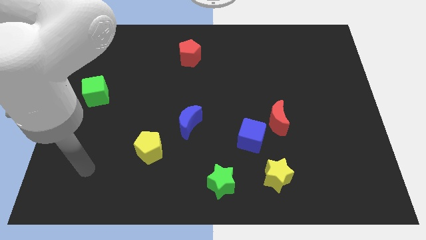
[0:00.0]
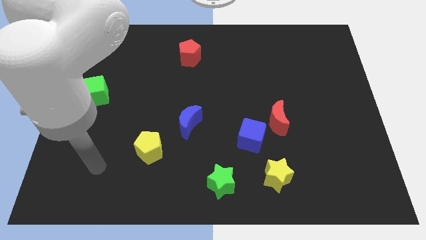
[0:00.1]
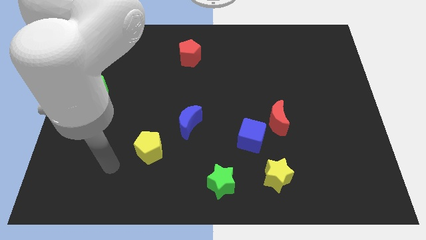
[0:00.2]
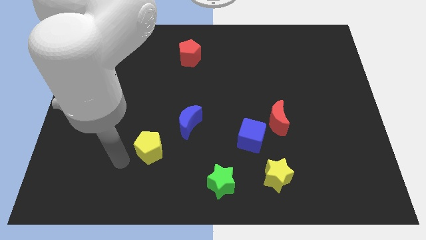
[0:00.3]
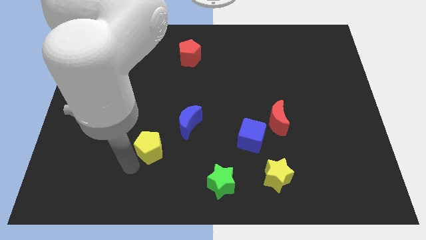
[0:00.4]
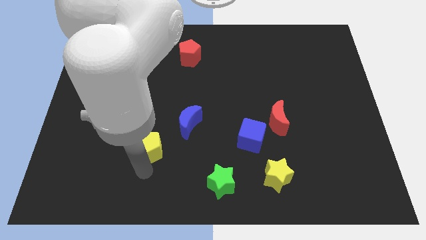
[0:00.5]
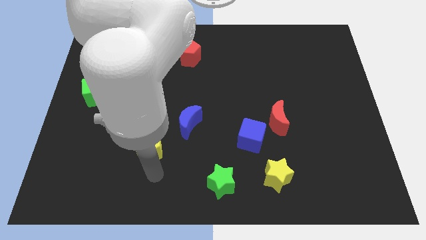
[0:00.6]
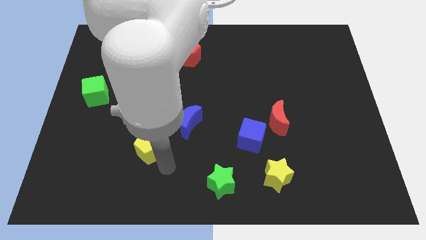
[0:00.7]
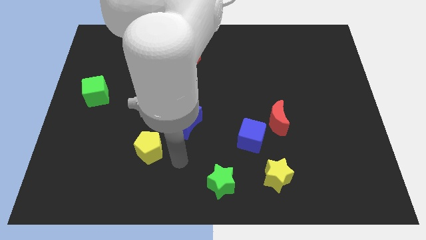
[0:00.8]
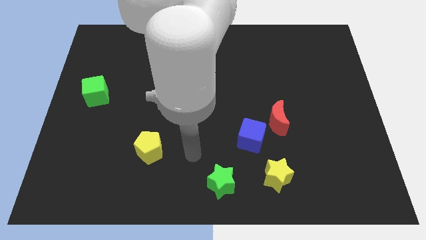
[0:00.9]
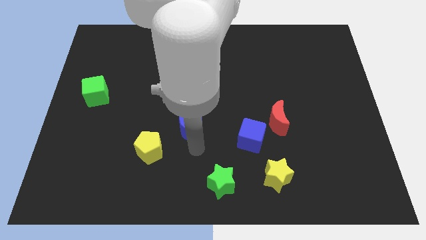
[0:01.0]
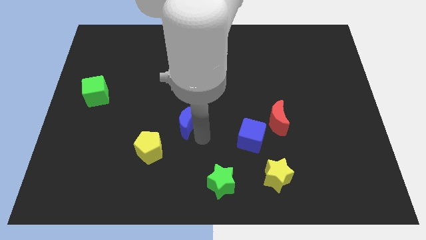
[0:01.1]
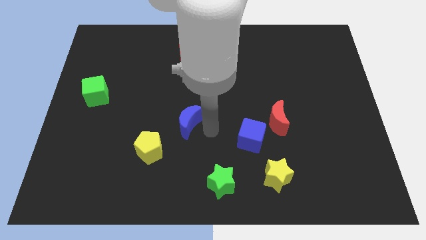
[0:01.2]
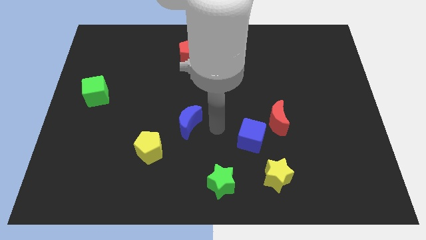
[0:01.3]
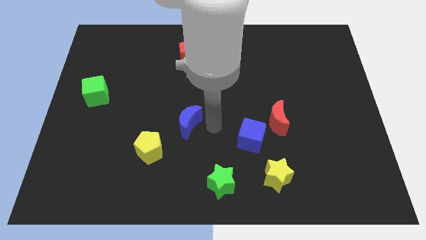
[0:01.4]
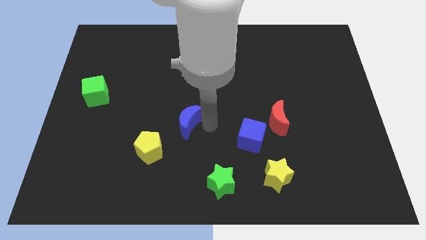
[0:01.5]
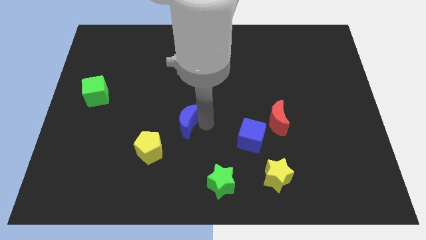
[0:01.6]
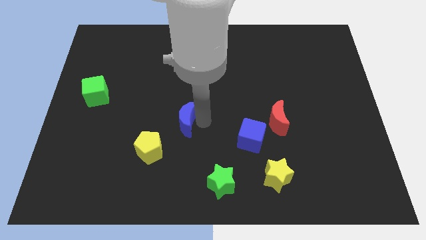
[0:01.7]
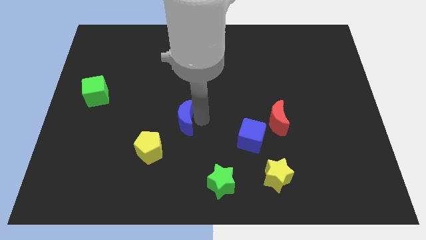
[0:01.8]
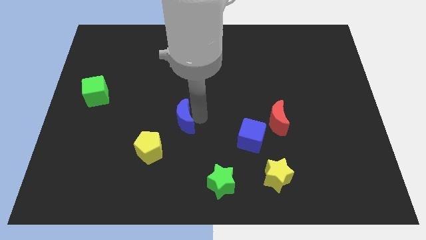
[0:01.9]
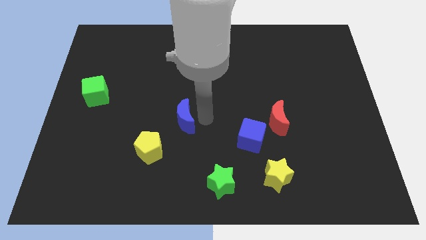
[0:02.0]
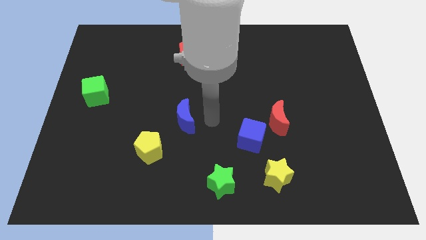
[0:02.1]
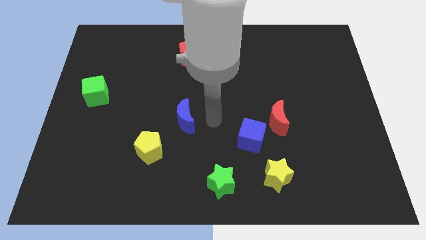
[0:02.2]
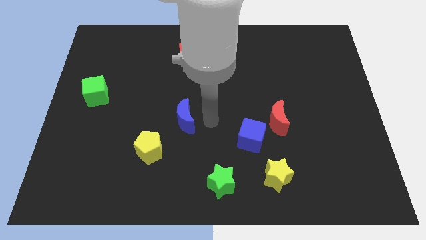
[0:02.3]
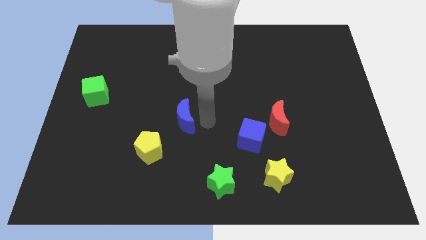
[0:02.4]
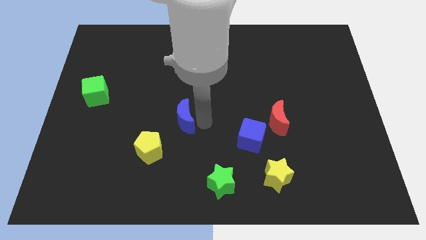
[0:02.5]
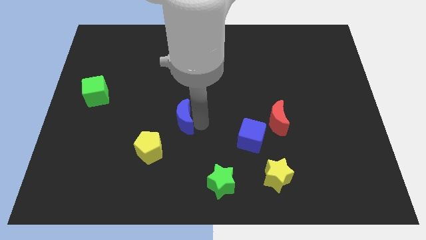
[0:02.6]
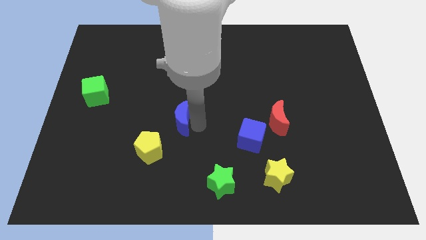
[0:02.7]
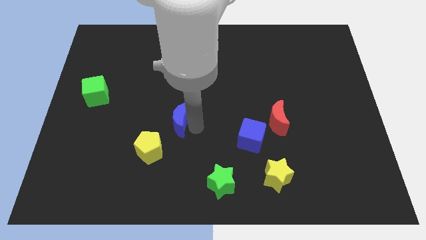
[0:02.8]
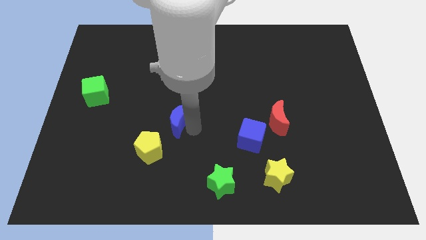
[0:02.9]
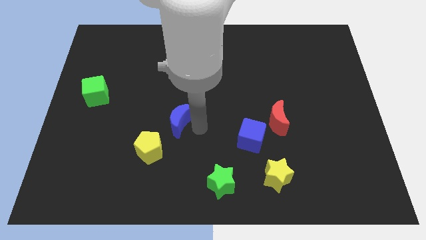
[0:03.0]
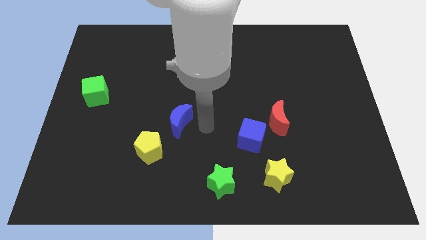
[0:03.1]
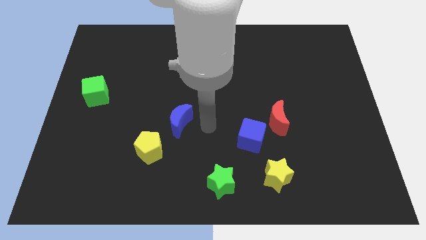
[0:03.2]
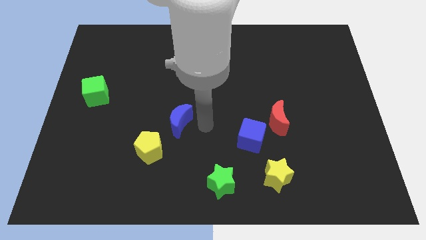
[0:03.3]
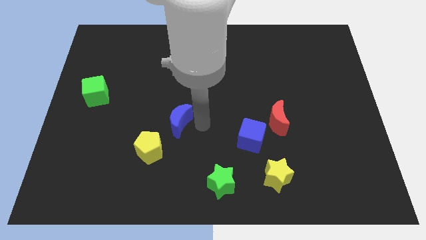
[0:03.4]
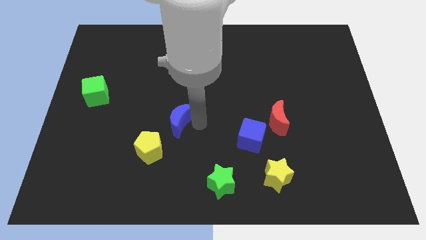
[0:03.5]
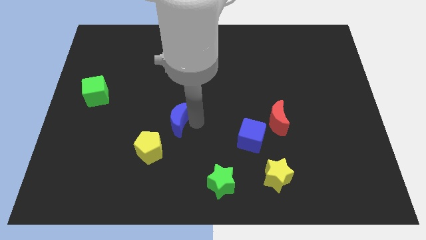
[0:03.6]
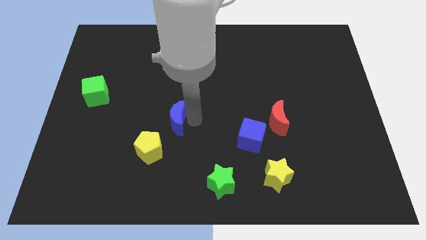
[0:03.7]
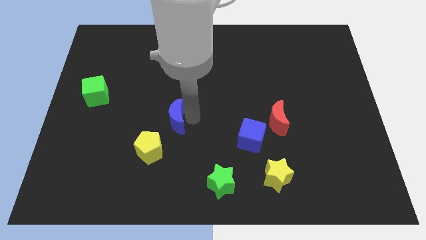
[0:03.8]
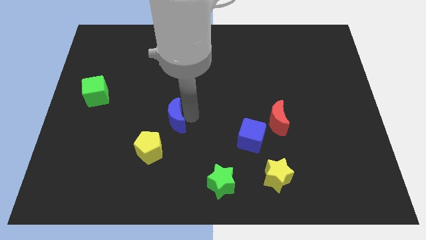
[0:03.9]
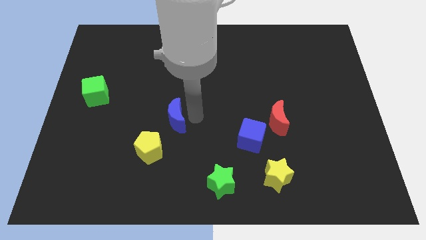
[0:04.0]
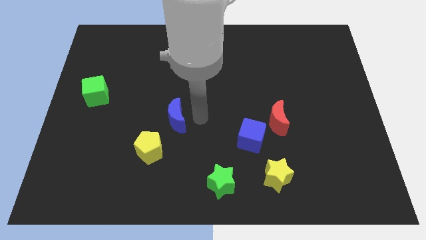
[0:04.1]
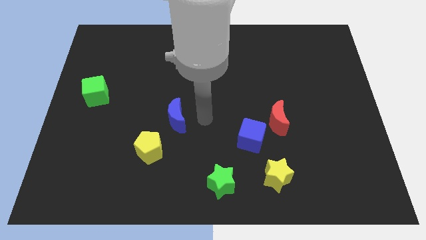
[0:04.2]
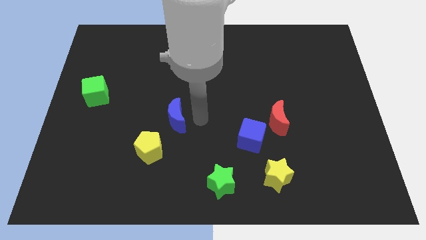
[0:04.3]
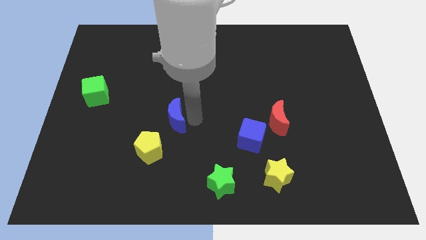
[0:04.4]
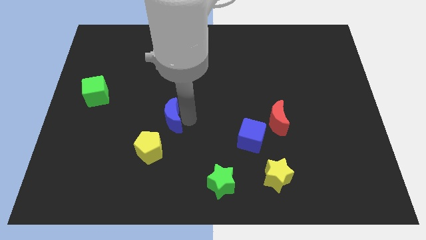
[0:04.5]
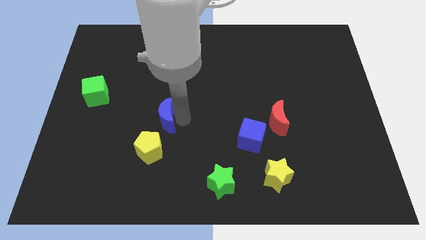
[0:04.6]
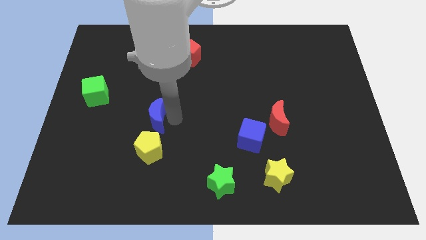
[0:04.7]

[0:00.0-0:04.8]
push the blue moon a little bit left

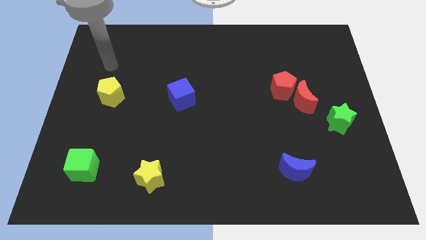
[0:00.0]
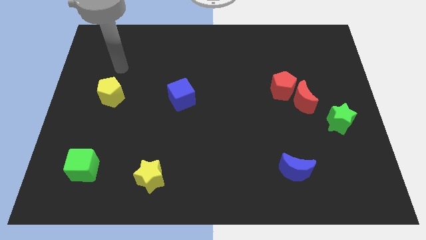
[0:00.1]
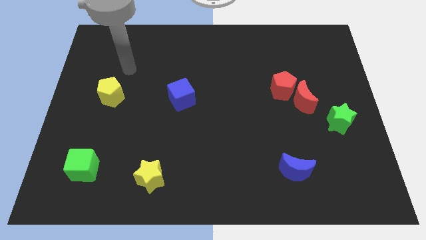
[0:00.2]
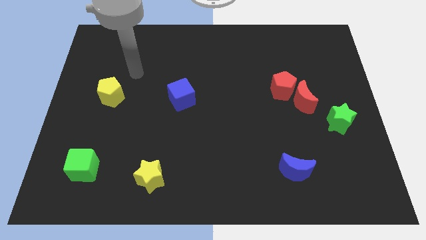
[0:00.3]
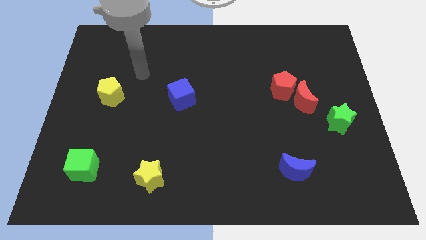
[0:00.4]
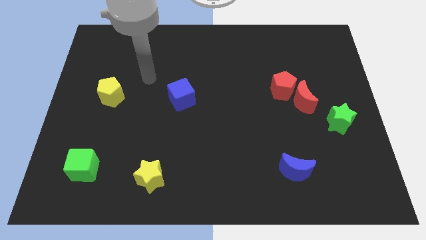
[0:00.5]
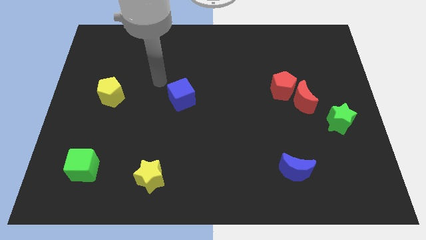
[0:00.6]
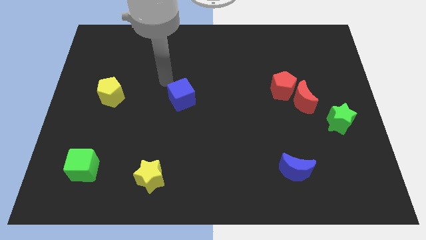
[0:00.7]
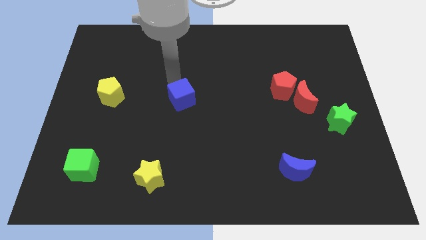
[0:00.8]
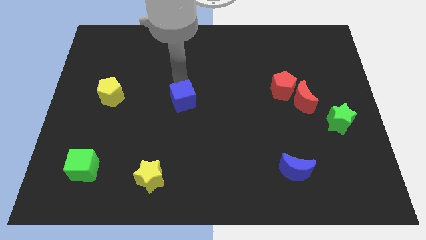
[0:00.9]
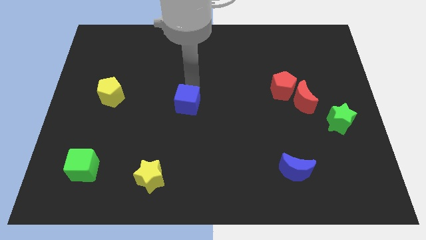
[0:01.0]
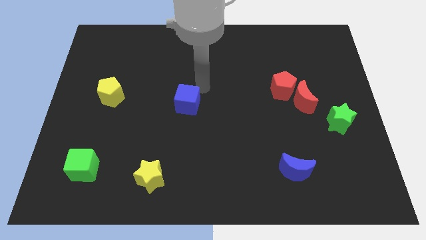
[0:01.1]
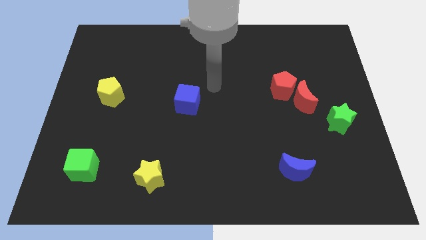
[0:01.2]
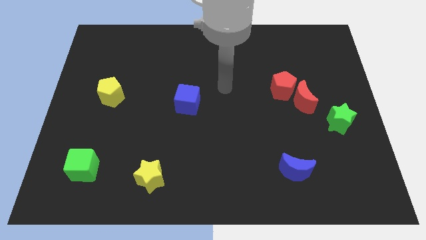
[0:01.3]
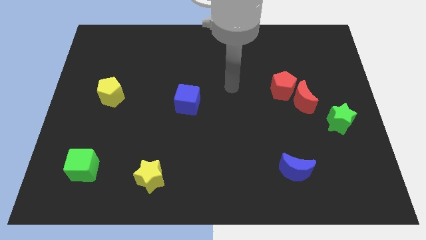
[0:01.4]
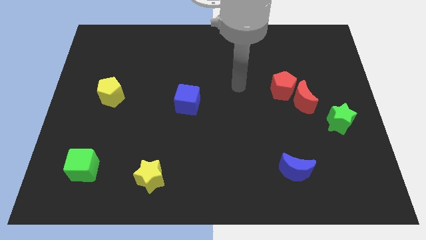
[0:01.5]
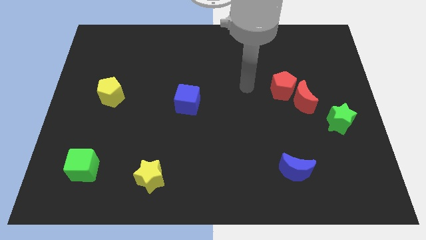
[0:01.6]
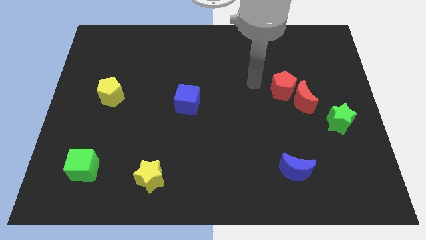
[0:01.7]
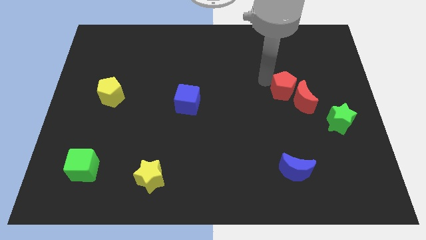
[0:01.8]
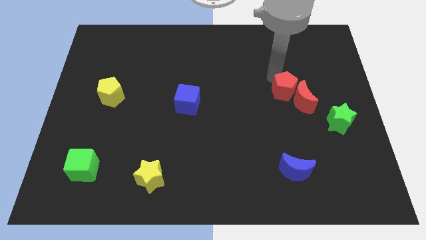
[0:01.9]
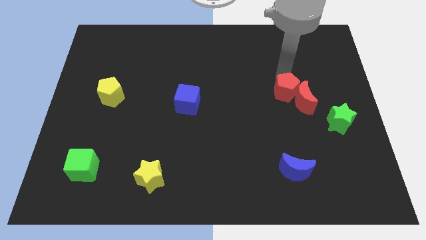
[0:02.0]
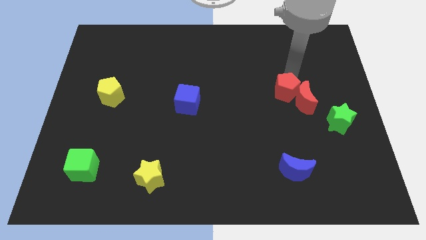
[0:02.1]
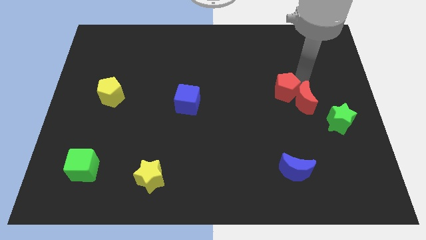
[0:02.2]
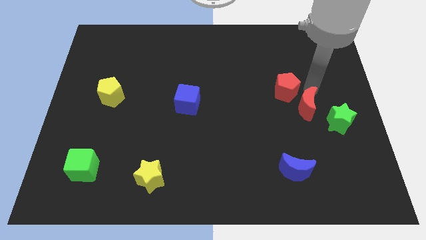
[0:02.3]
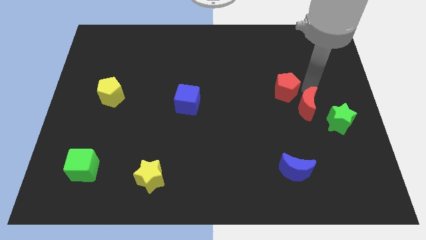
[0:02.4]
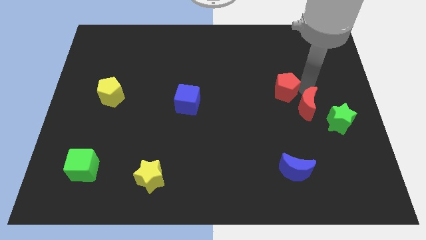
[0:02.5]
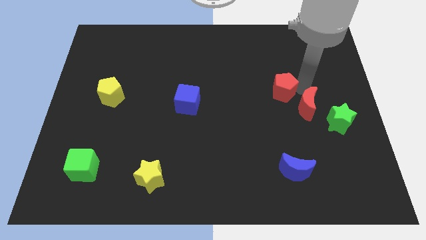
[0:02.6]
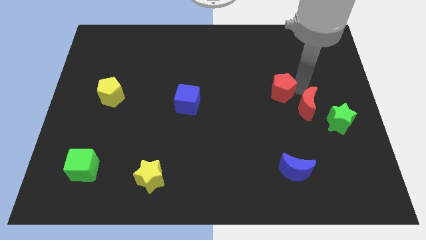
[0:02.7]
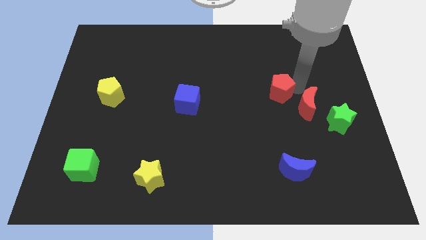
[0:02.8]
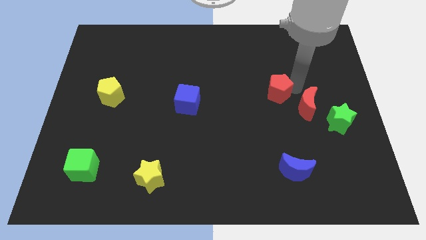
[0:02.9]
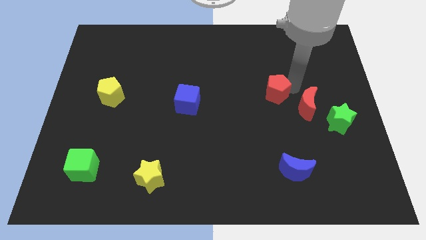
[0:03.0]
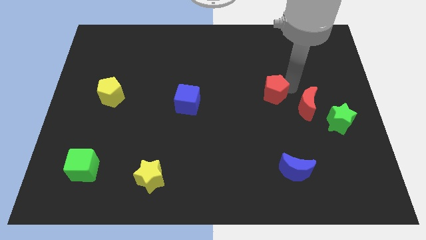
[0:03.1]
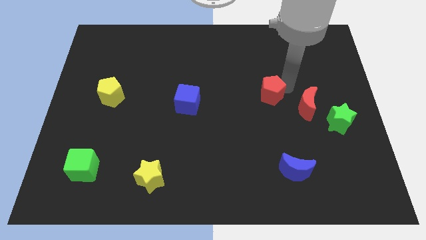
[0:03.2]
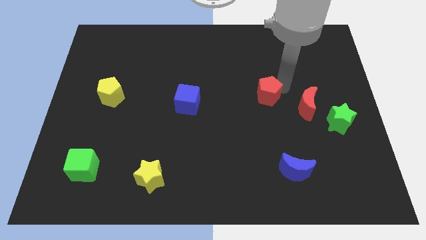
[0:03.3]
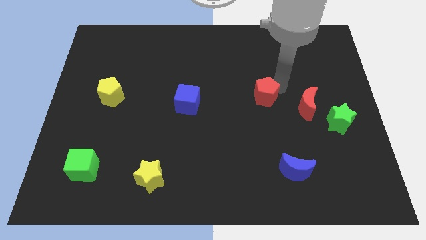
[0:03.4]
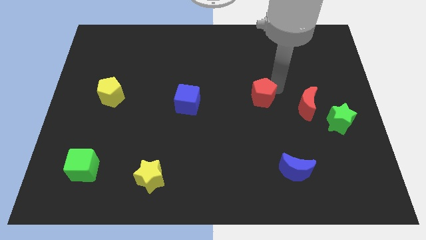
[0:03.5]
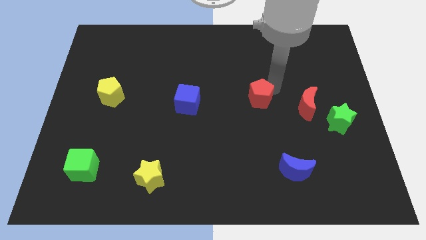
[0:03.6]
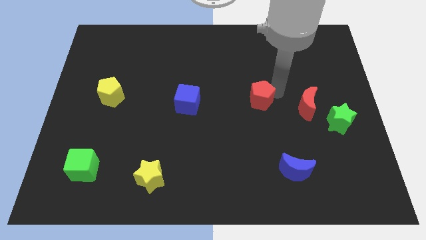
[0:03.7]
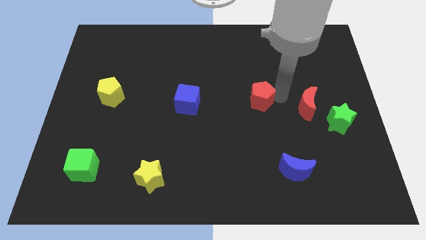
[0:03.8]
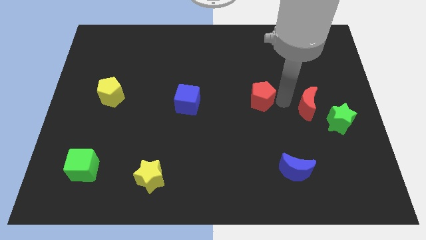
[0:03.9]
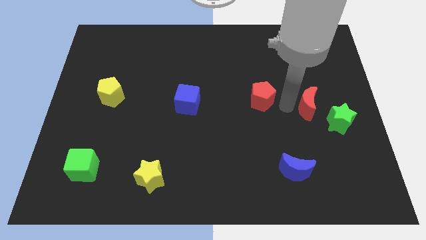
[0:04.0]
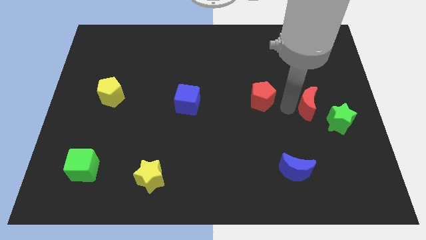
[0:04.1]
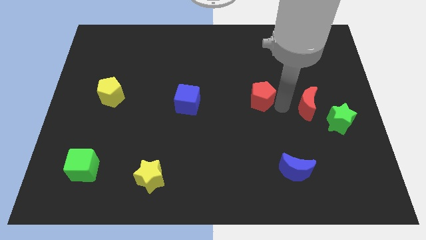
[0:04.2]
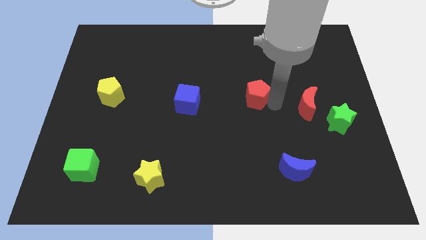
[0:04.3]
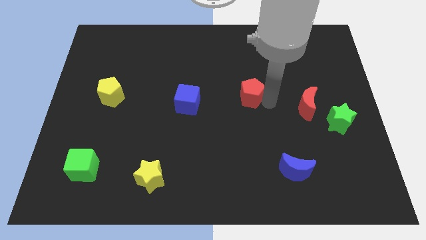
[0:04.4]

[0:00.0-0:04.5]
move the red pentagon to the left somewhat
